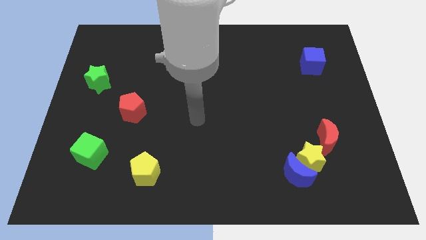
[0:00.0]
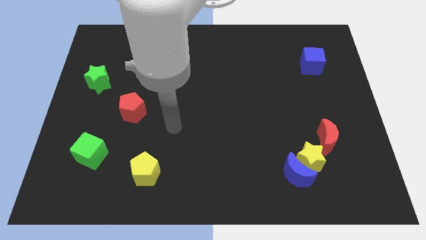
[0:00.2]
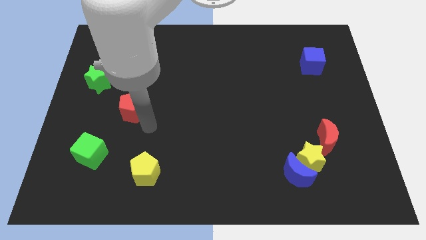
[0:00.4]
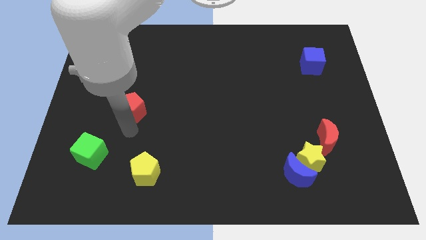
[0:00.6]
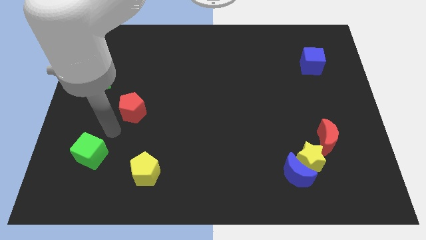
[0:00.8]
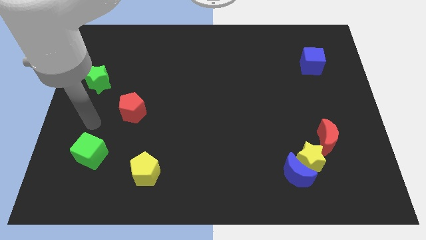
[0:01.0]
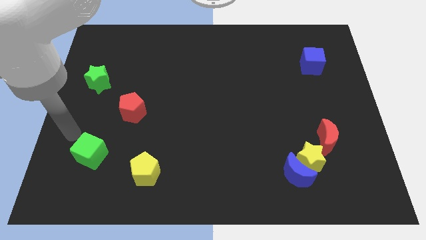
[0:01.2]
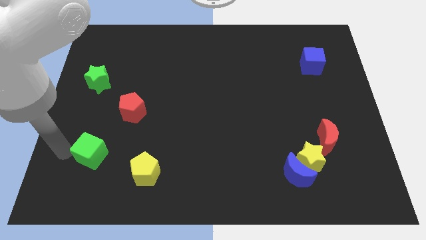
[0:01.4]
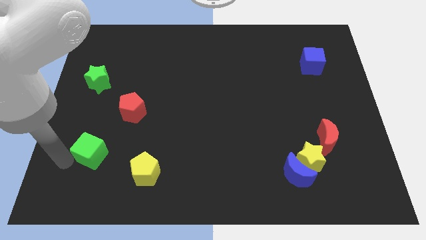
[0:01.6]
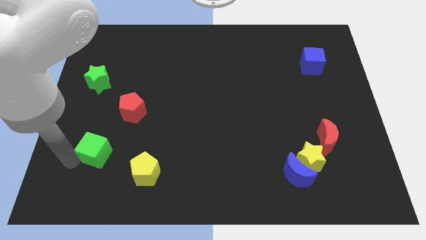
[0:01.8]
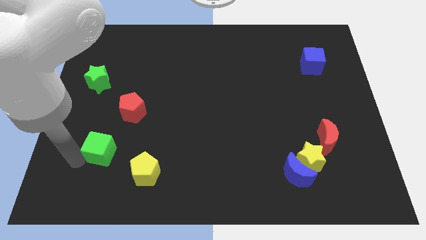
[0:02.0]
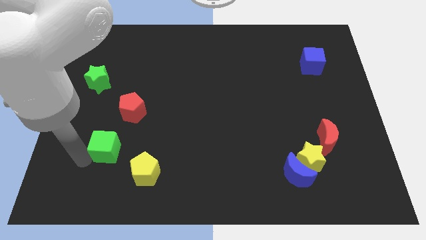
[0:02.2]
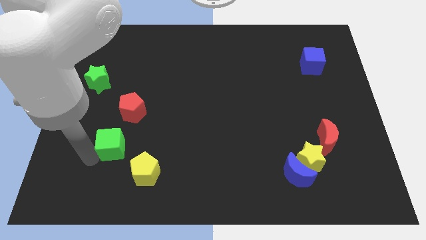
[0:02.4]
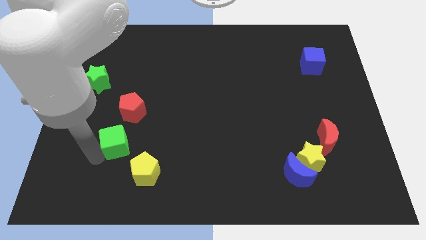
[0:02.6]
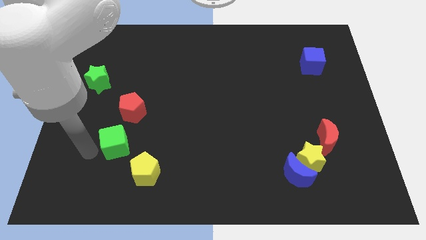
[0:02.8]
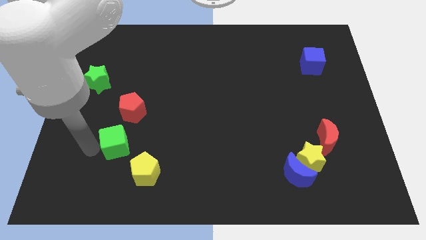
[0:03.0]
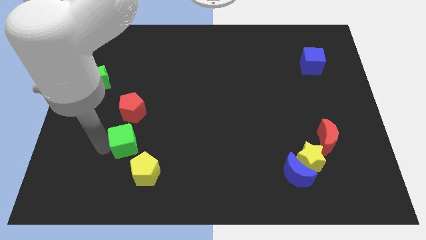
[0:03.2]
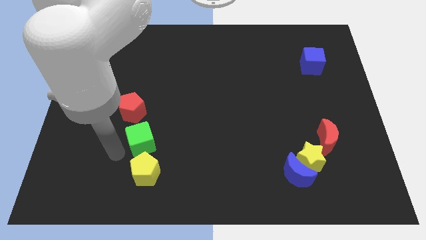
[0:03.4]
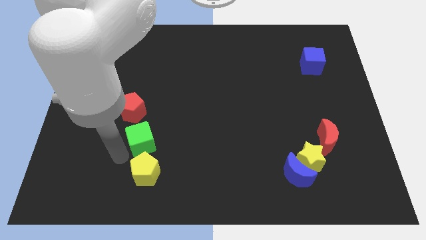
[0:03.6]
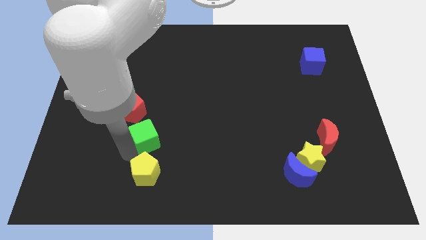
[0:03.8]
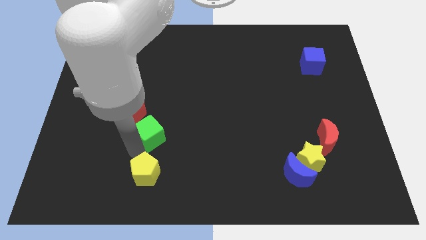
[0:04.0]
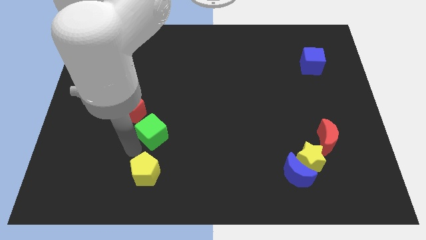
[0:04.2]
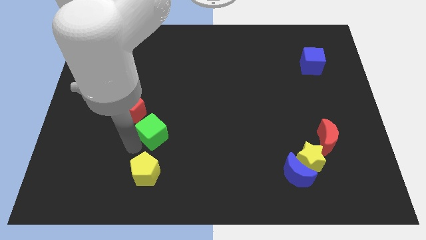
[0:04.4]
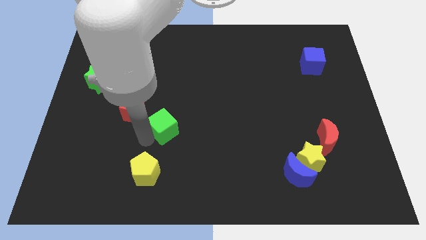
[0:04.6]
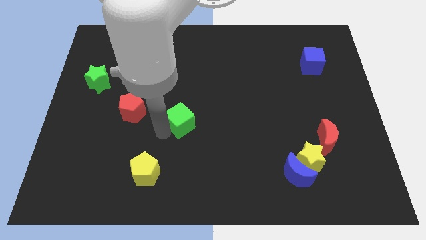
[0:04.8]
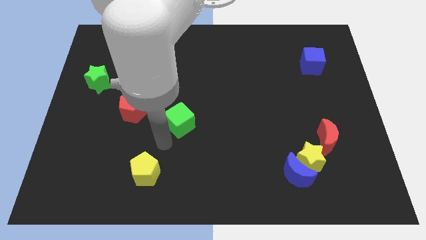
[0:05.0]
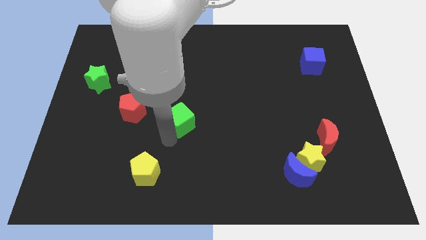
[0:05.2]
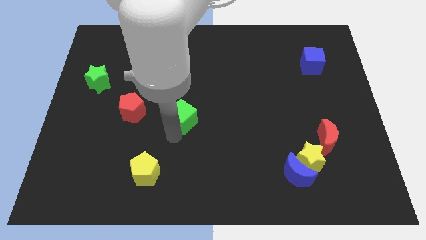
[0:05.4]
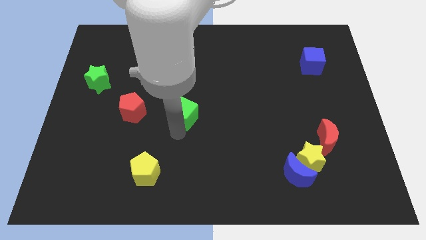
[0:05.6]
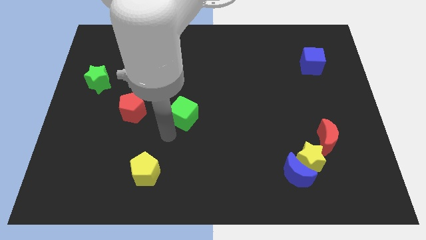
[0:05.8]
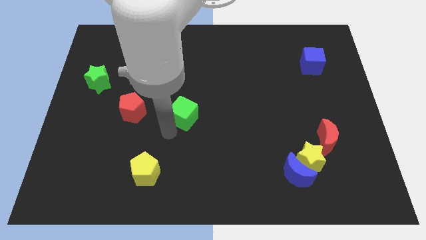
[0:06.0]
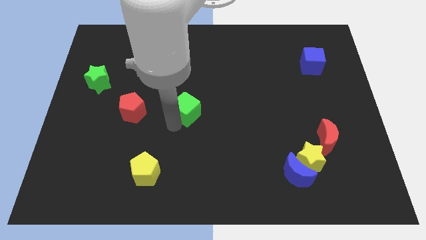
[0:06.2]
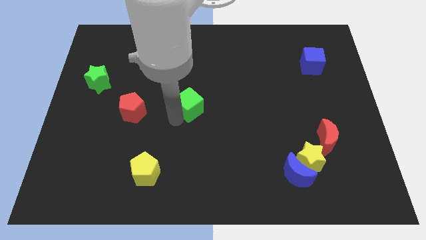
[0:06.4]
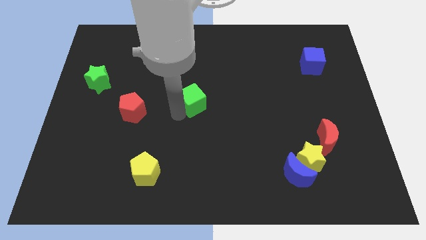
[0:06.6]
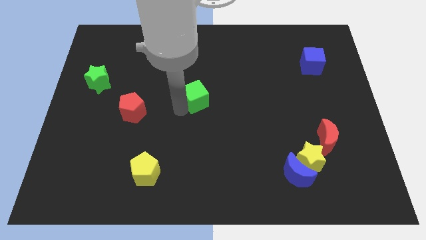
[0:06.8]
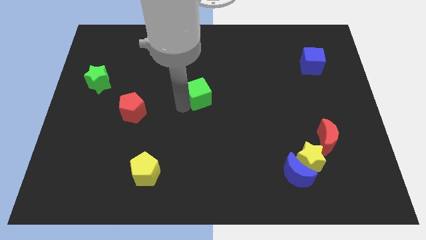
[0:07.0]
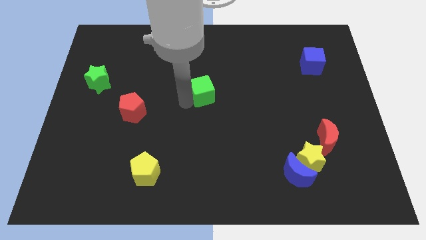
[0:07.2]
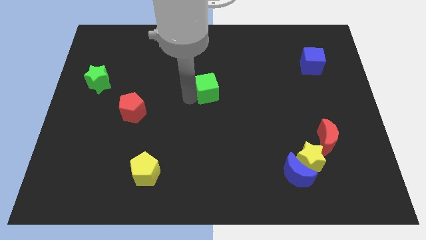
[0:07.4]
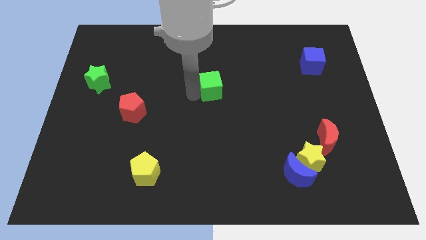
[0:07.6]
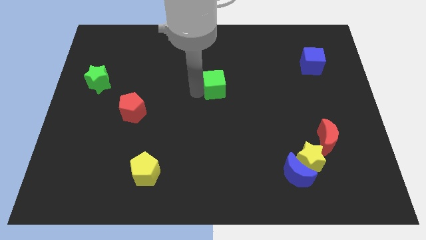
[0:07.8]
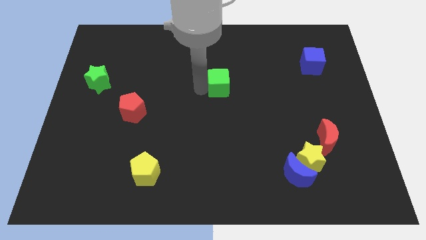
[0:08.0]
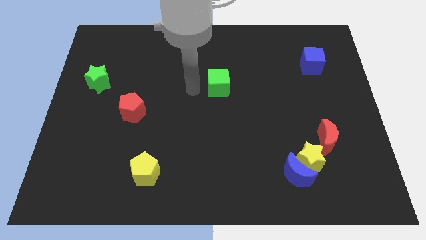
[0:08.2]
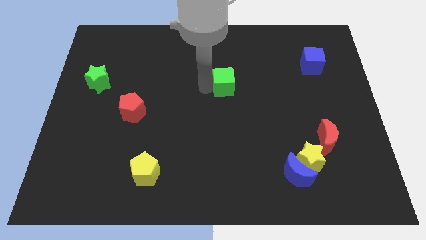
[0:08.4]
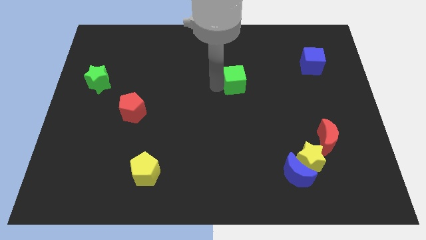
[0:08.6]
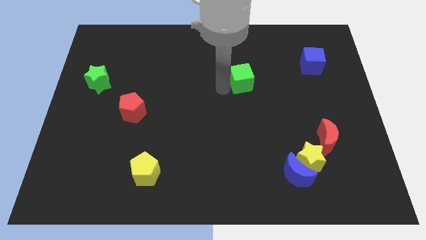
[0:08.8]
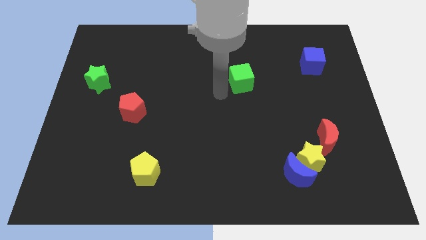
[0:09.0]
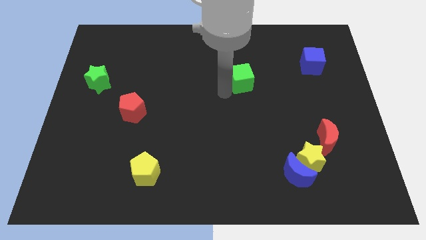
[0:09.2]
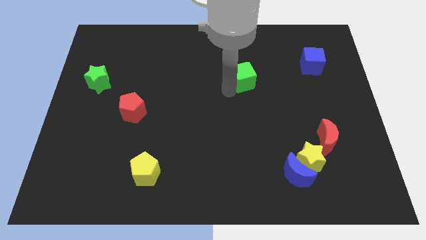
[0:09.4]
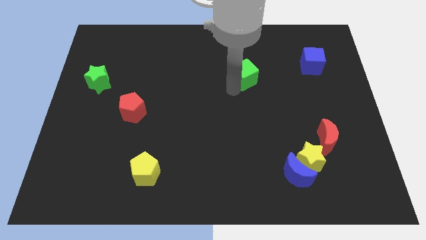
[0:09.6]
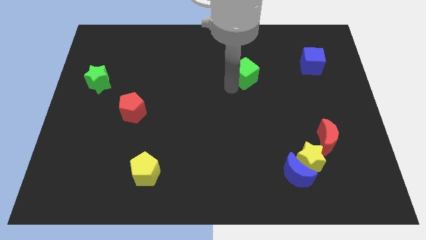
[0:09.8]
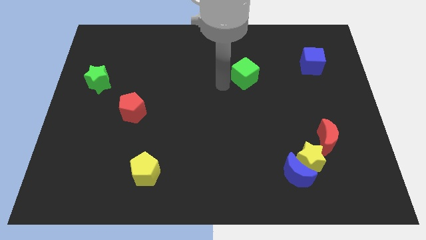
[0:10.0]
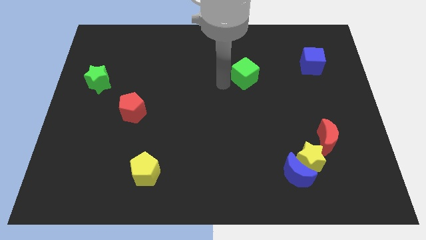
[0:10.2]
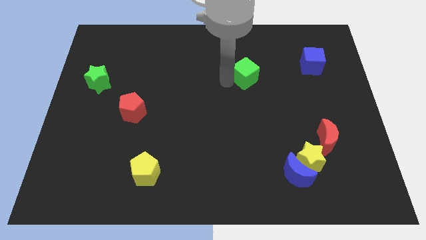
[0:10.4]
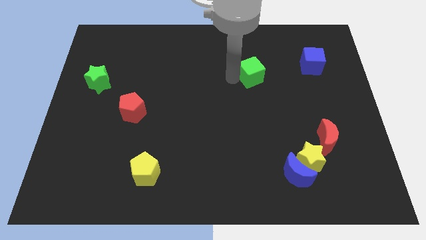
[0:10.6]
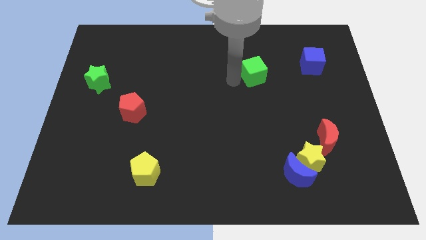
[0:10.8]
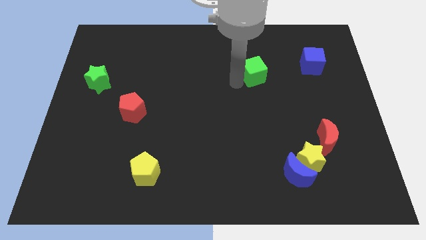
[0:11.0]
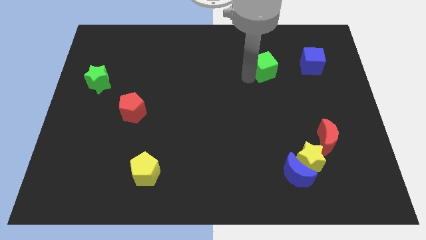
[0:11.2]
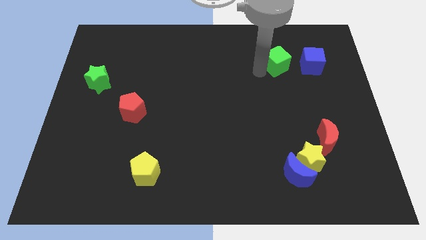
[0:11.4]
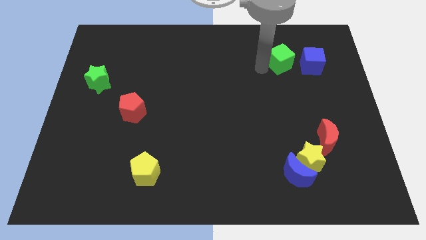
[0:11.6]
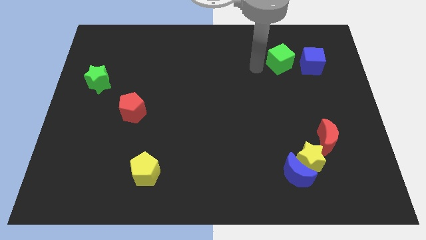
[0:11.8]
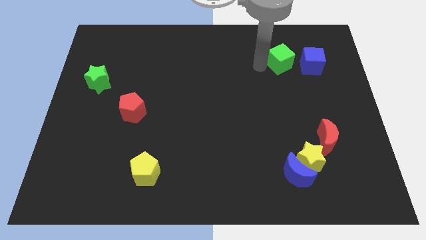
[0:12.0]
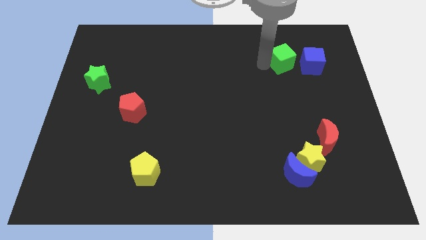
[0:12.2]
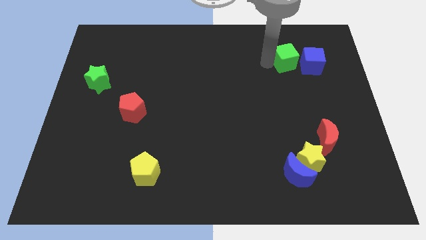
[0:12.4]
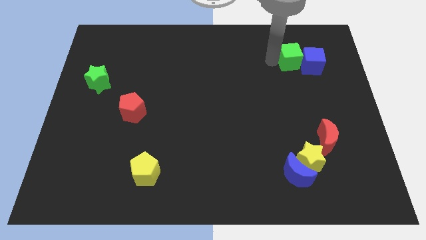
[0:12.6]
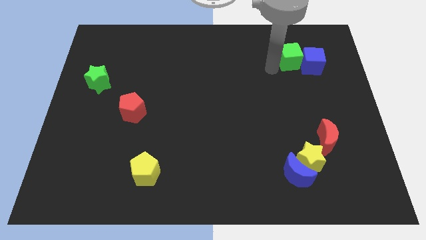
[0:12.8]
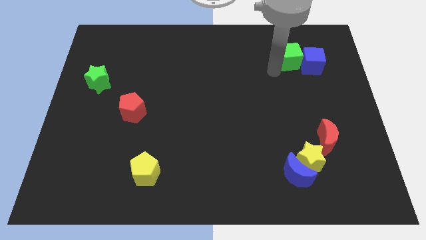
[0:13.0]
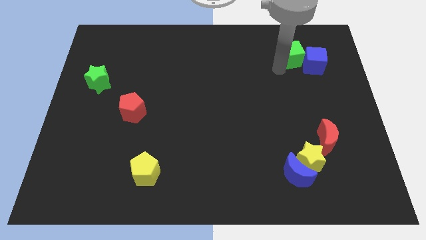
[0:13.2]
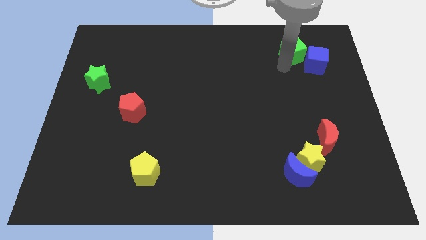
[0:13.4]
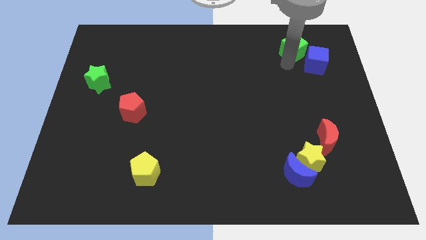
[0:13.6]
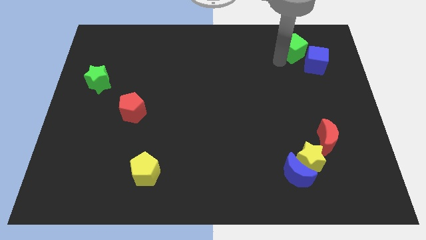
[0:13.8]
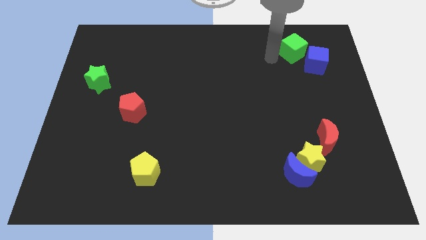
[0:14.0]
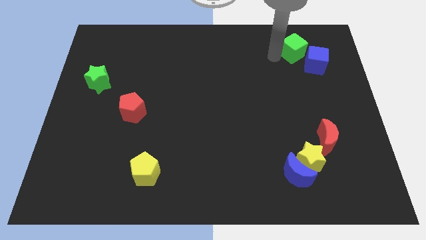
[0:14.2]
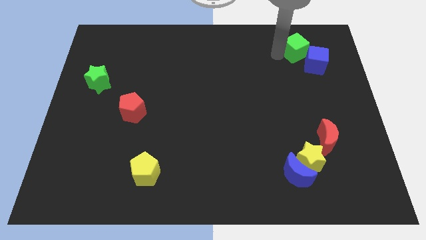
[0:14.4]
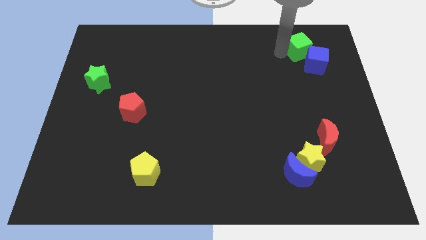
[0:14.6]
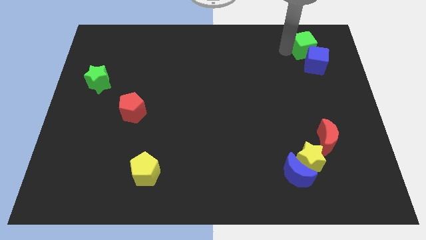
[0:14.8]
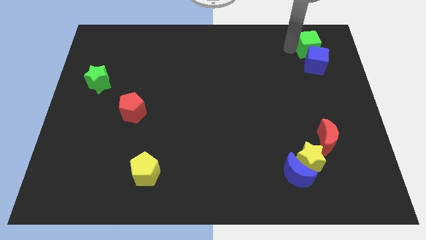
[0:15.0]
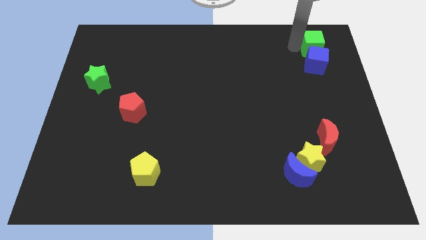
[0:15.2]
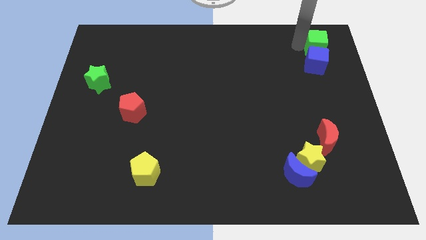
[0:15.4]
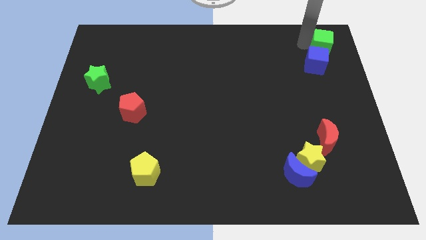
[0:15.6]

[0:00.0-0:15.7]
push the green cube to the top right
